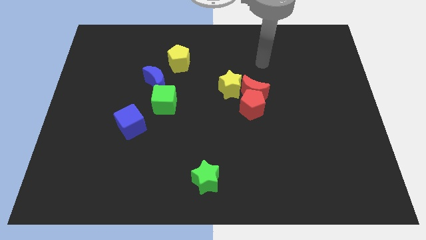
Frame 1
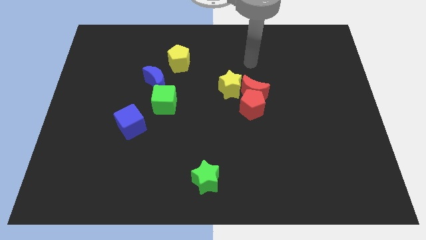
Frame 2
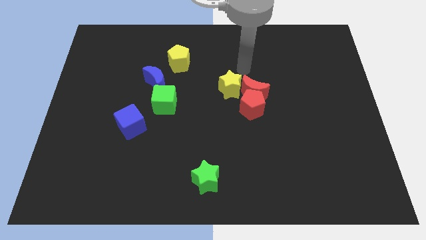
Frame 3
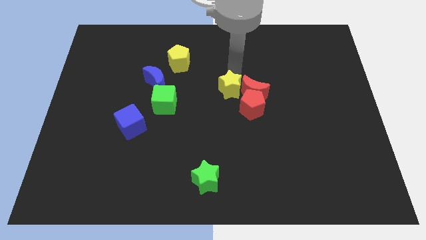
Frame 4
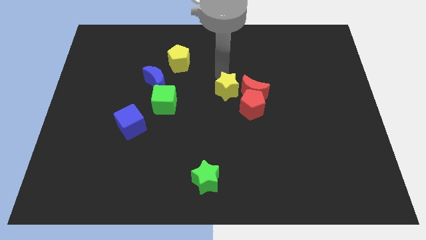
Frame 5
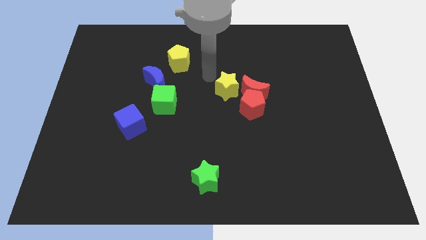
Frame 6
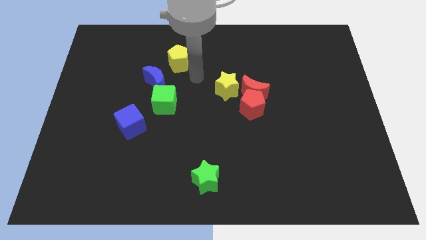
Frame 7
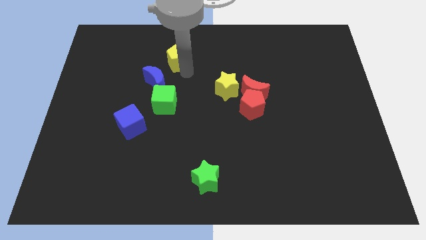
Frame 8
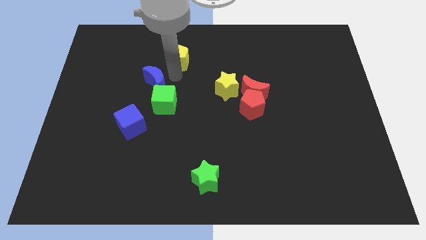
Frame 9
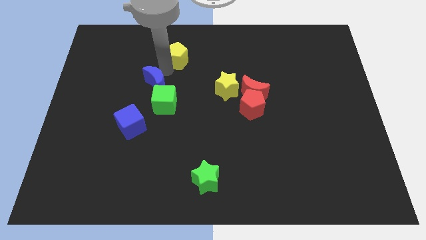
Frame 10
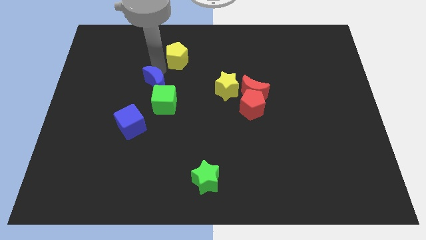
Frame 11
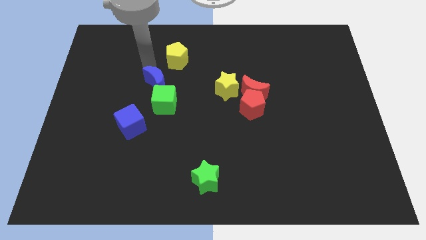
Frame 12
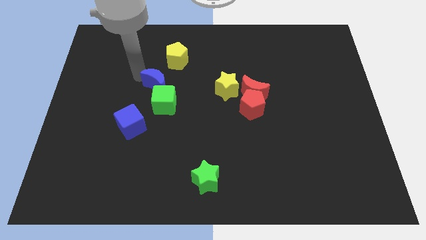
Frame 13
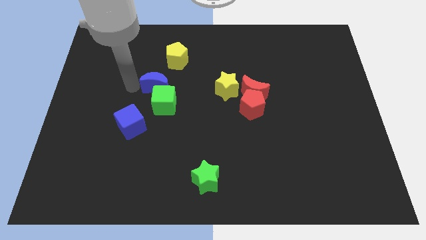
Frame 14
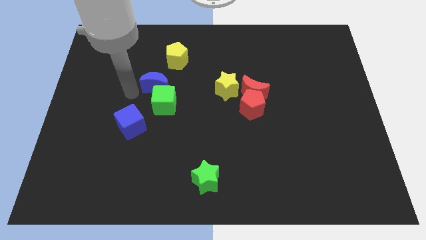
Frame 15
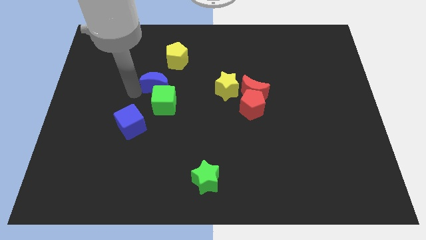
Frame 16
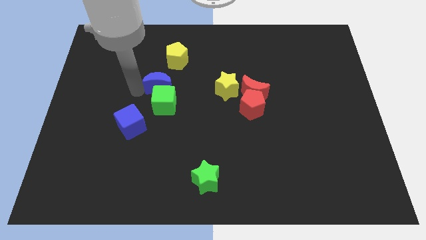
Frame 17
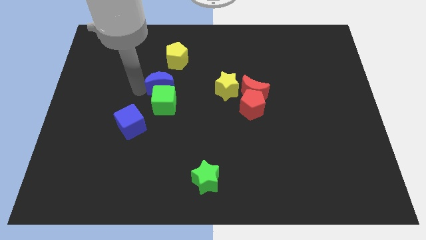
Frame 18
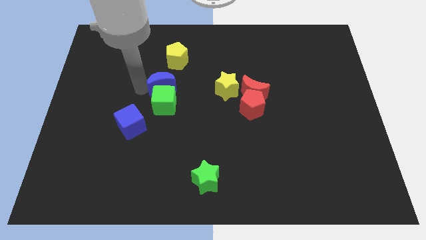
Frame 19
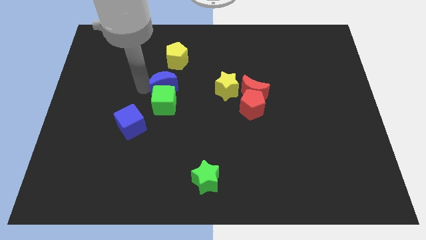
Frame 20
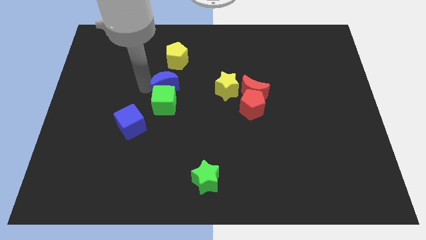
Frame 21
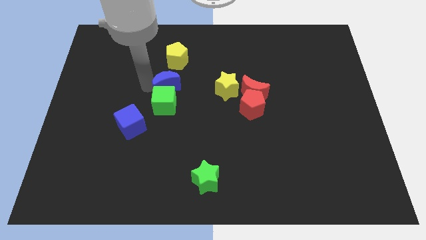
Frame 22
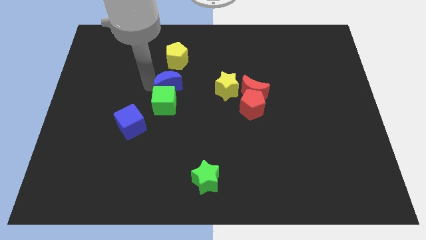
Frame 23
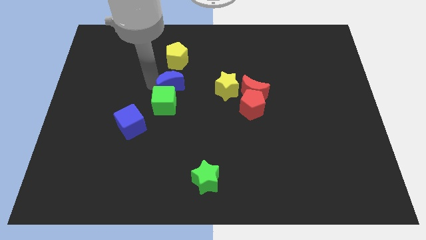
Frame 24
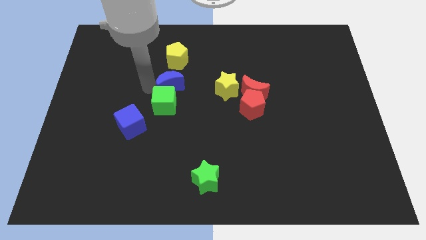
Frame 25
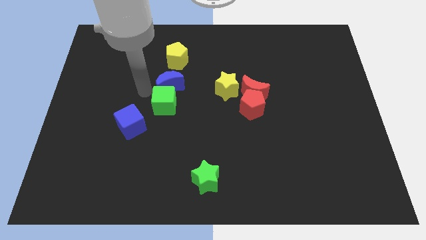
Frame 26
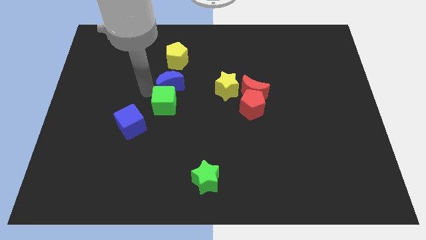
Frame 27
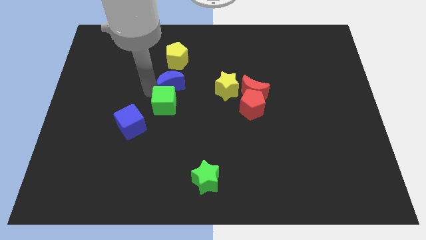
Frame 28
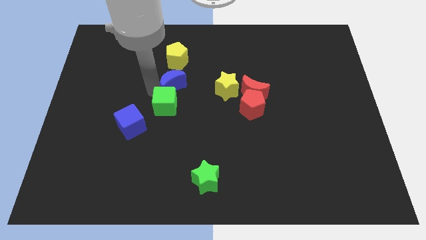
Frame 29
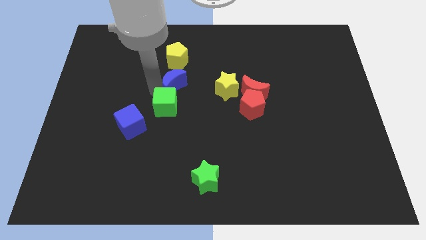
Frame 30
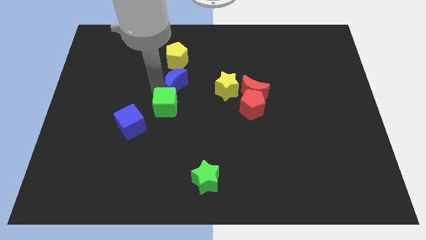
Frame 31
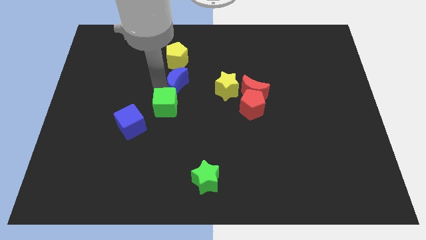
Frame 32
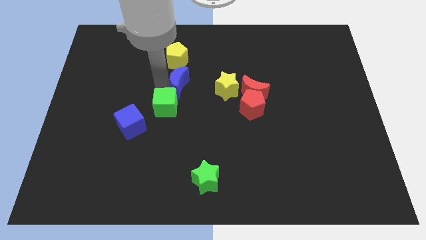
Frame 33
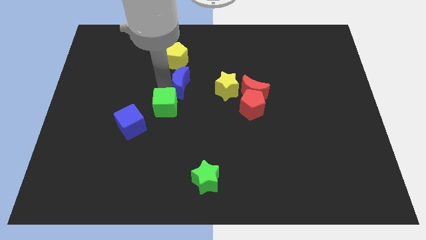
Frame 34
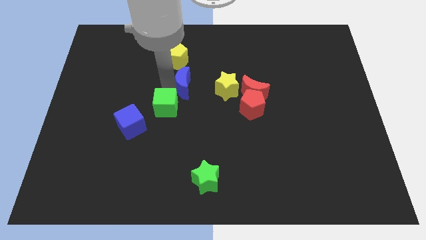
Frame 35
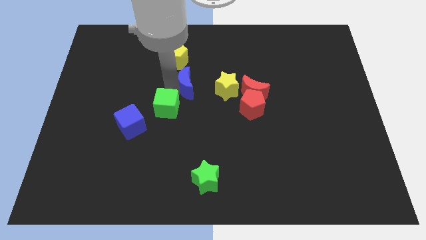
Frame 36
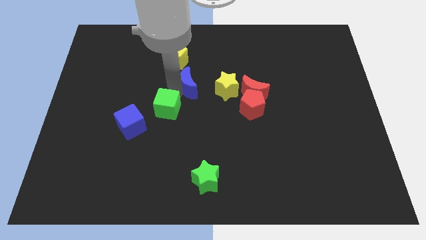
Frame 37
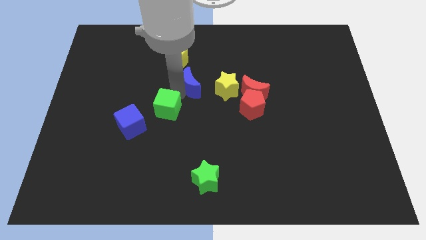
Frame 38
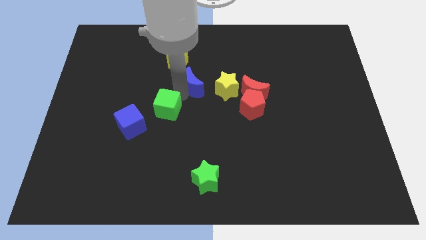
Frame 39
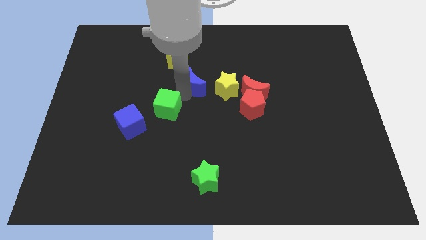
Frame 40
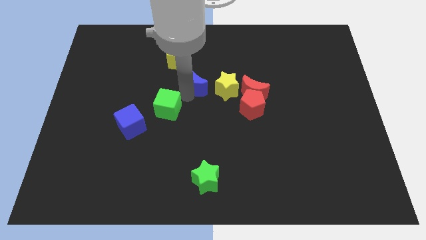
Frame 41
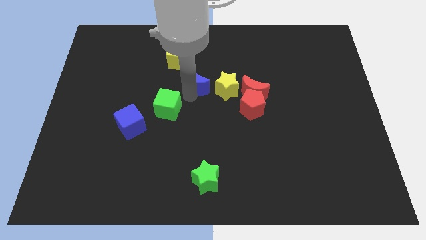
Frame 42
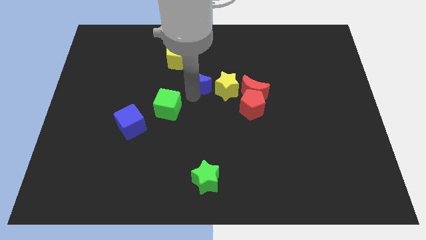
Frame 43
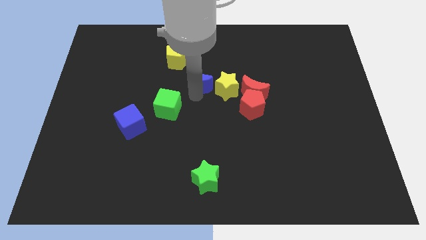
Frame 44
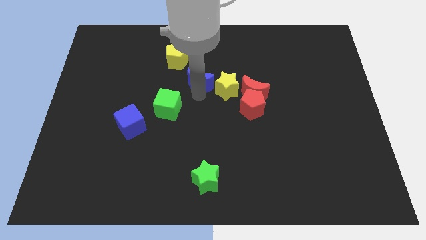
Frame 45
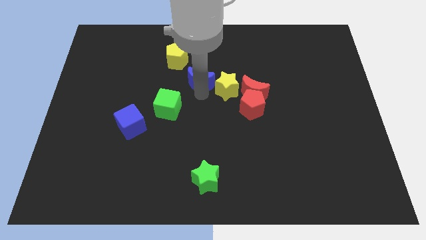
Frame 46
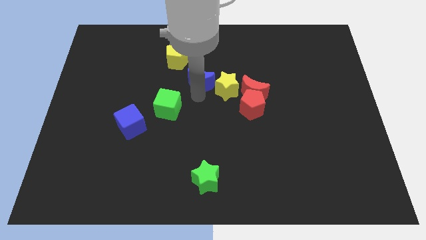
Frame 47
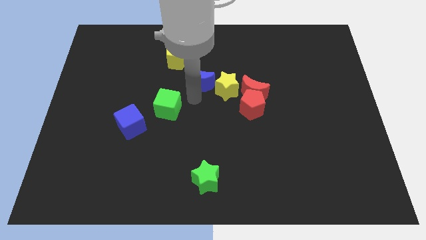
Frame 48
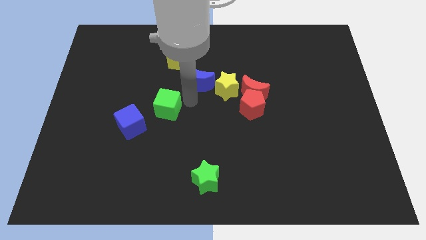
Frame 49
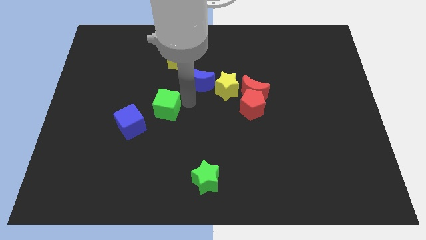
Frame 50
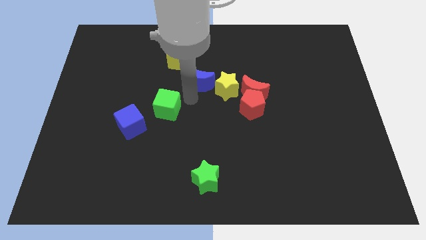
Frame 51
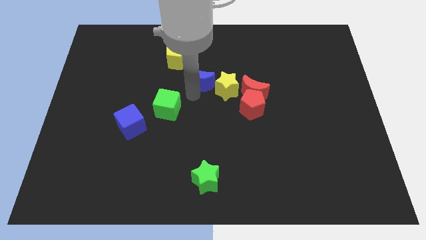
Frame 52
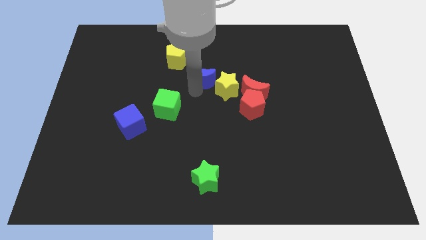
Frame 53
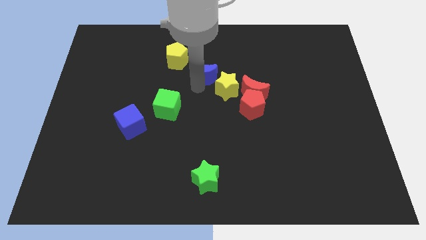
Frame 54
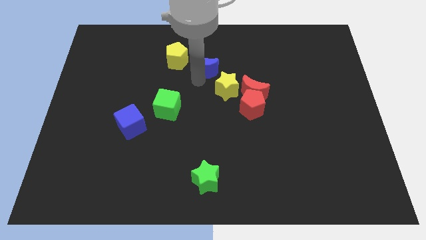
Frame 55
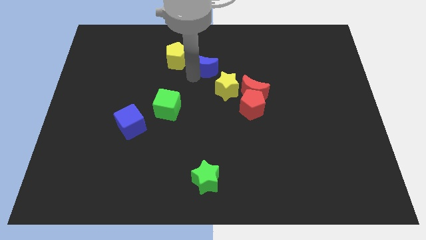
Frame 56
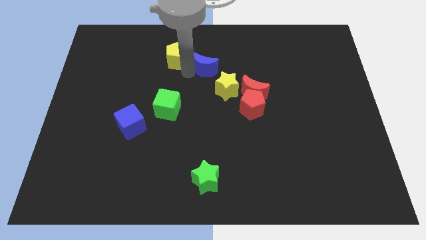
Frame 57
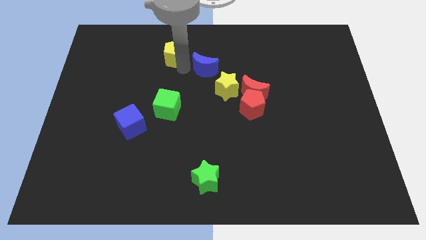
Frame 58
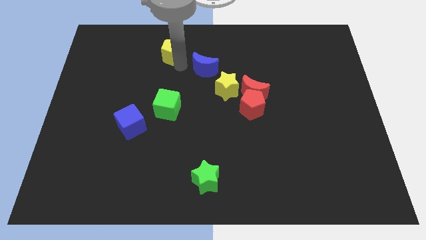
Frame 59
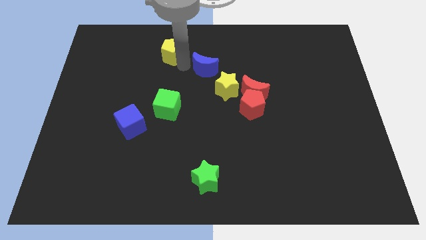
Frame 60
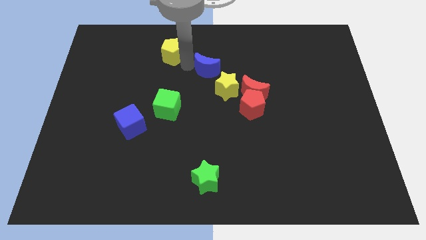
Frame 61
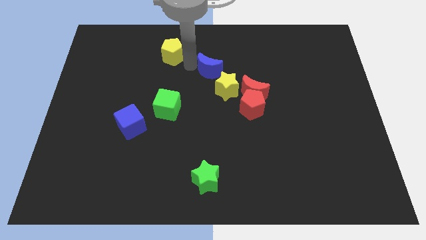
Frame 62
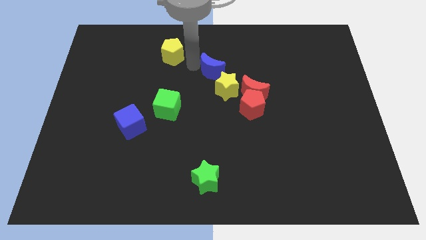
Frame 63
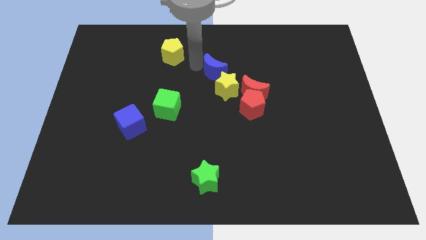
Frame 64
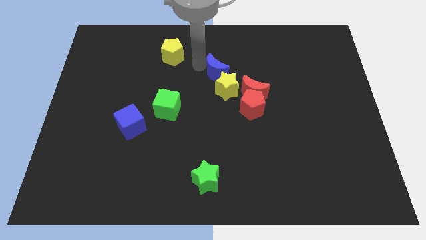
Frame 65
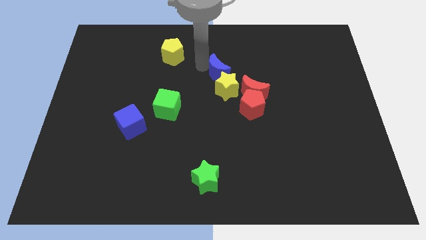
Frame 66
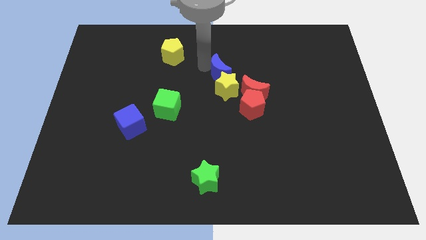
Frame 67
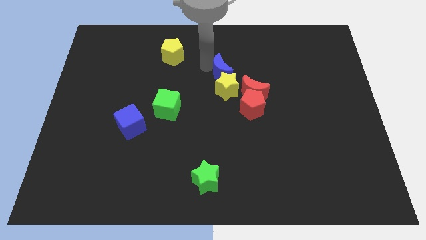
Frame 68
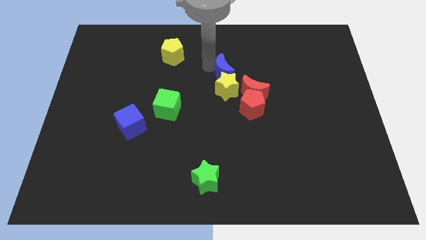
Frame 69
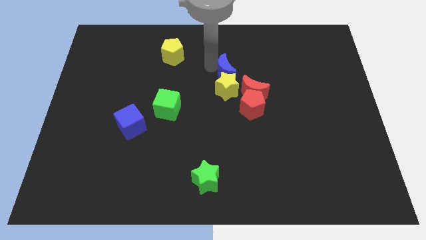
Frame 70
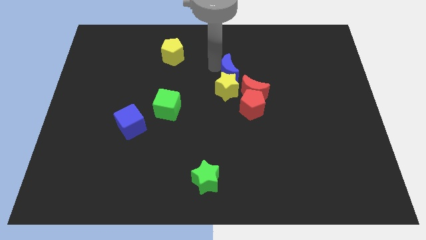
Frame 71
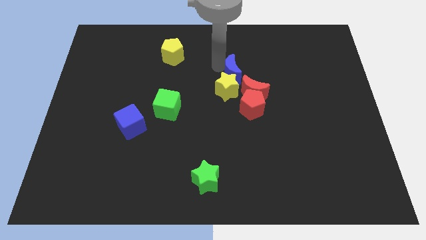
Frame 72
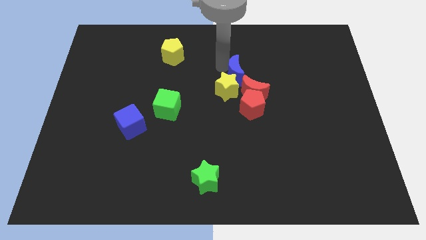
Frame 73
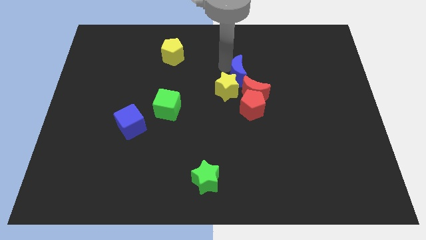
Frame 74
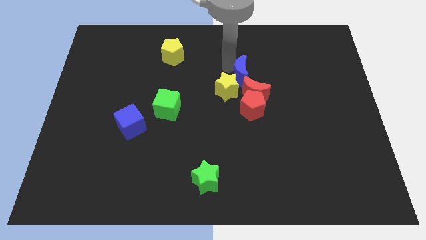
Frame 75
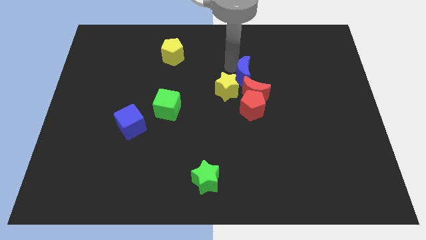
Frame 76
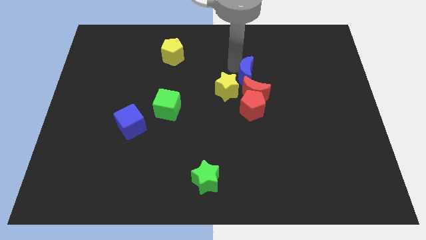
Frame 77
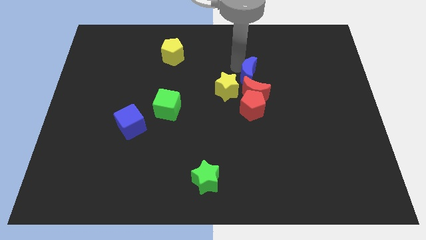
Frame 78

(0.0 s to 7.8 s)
move the blue moon next to the red moon
